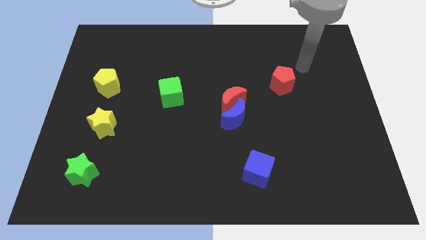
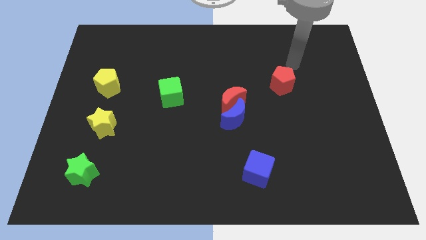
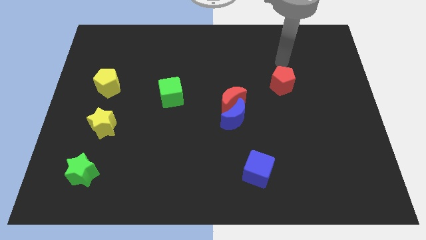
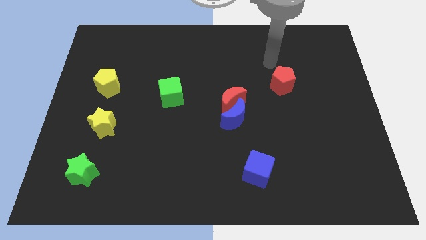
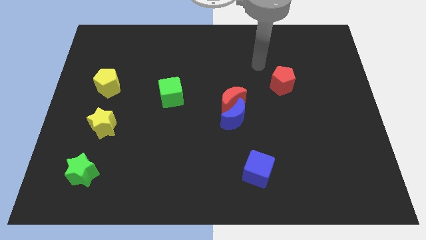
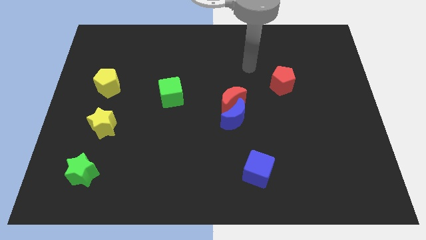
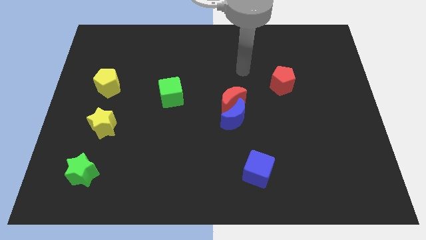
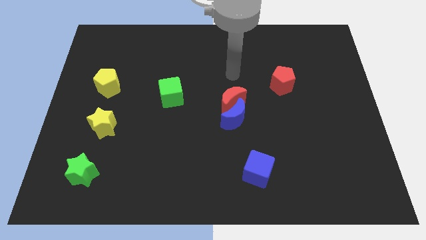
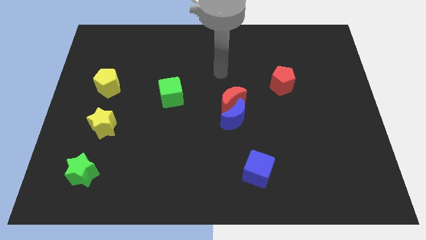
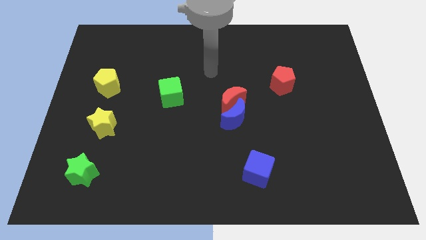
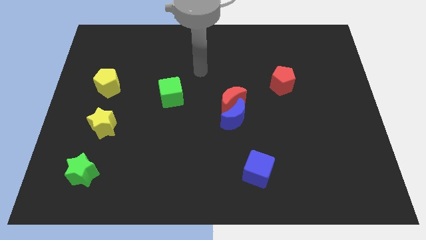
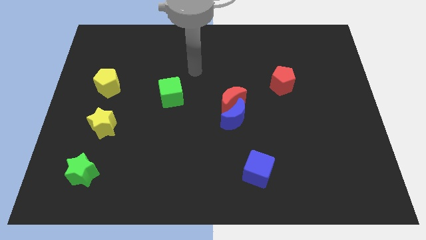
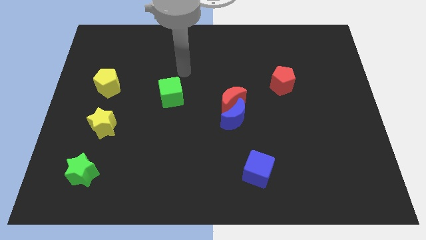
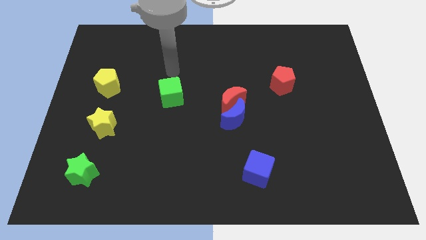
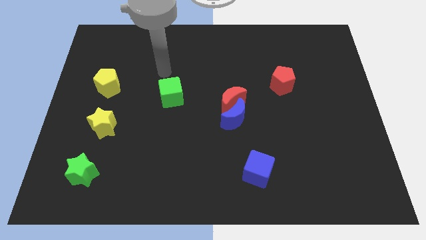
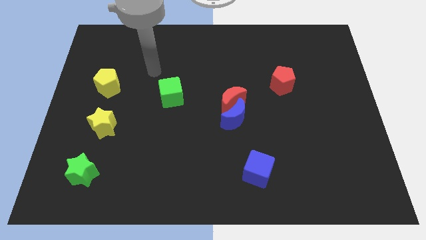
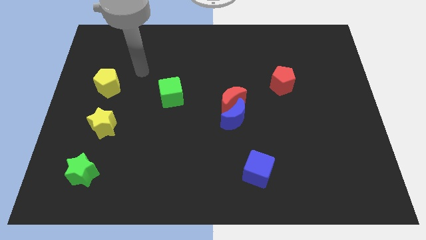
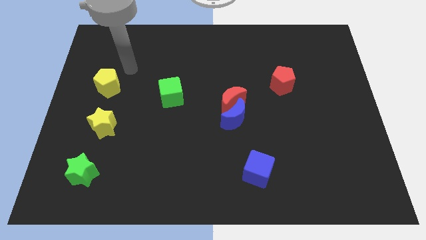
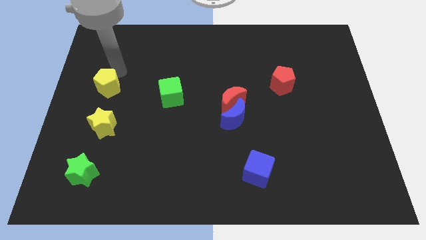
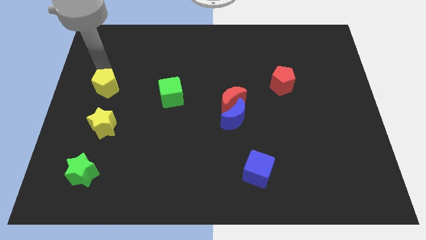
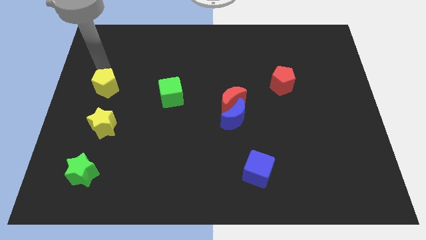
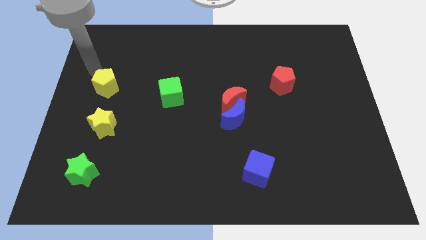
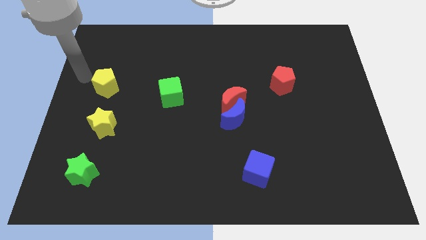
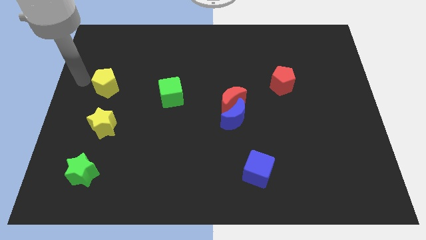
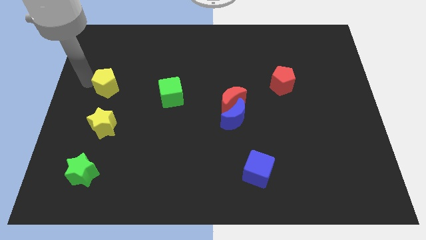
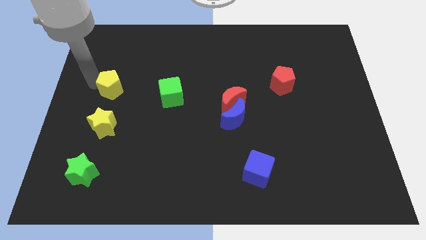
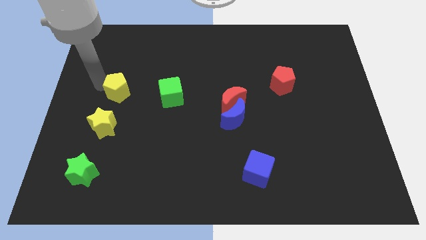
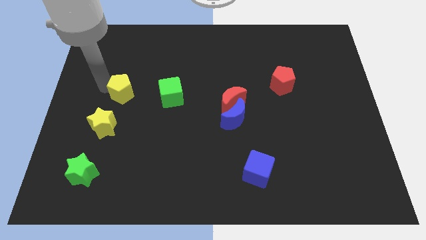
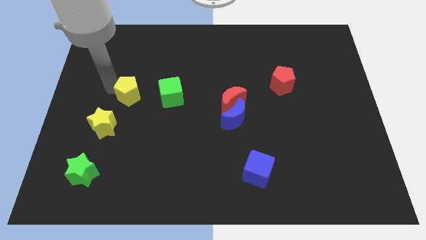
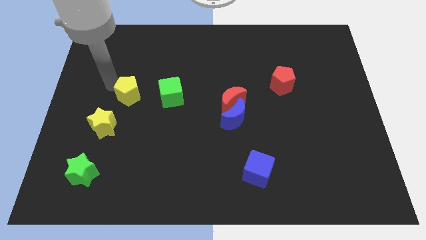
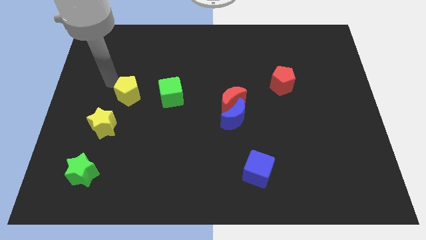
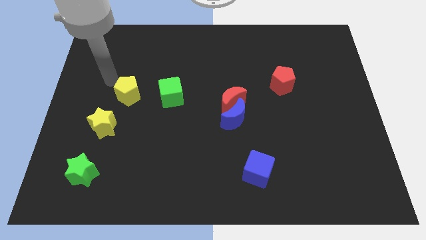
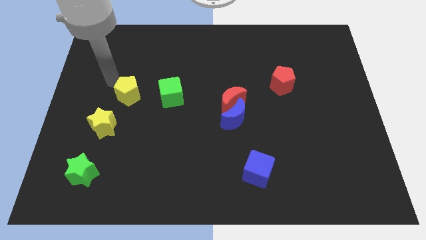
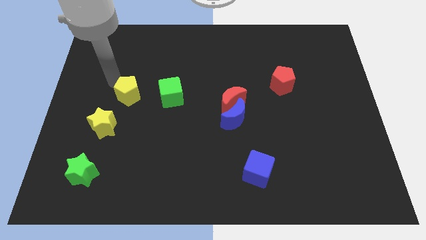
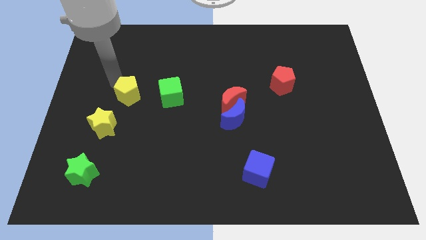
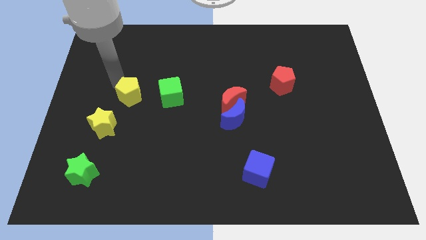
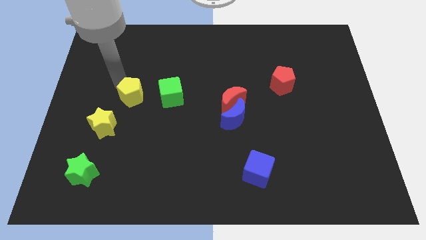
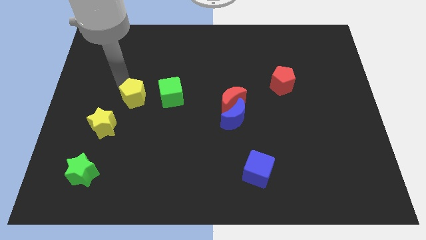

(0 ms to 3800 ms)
push the yellow pentagon a little downwards and to the right

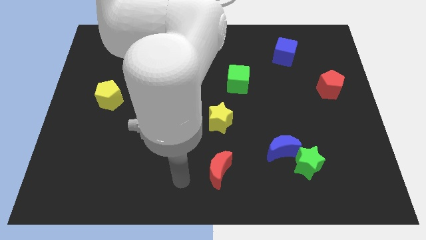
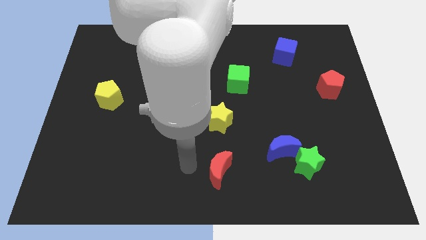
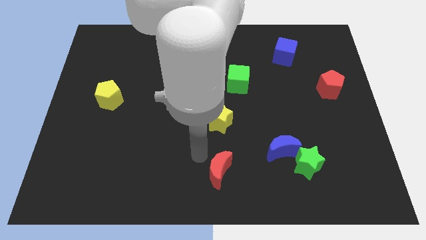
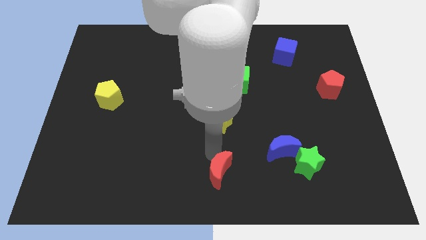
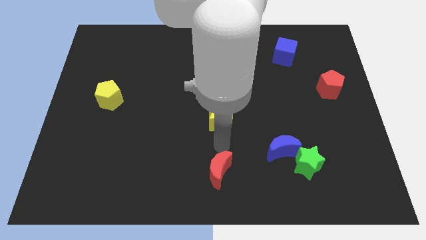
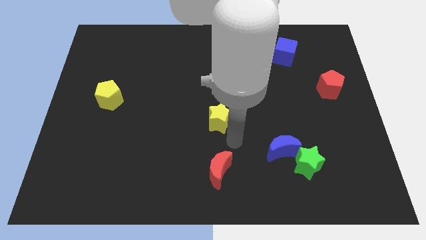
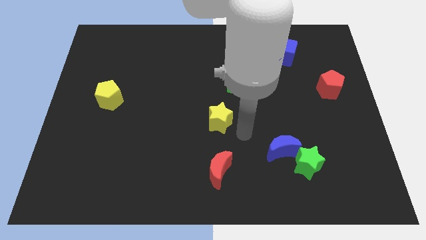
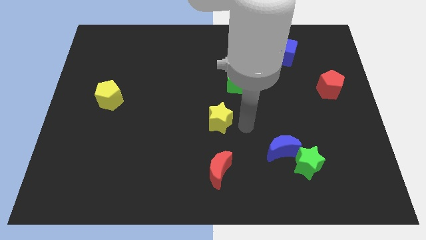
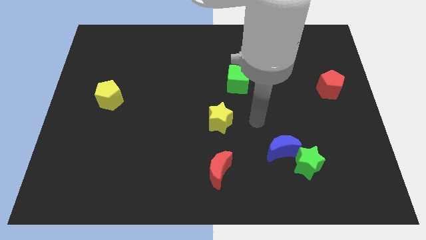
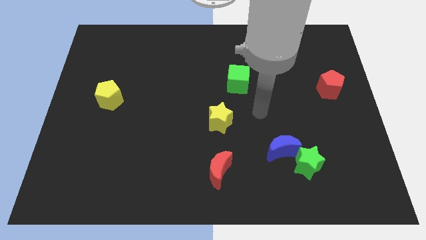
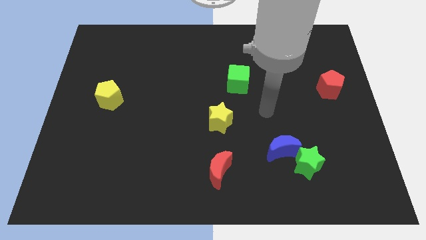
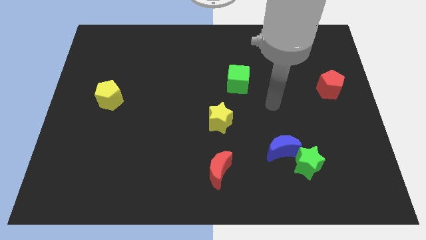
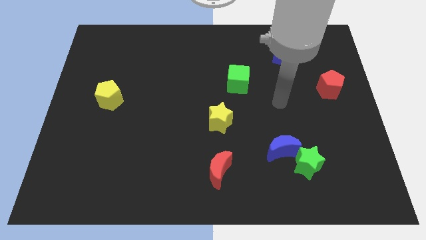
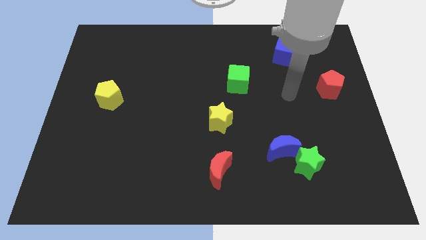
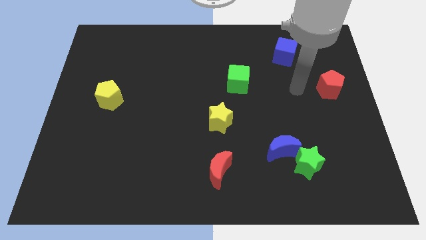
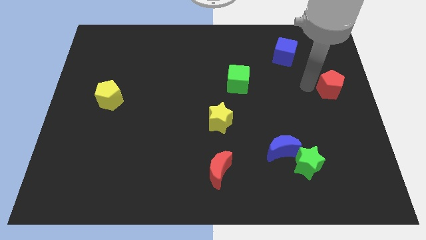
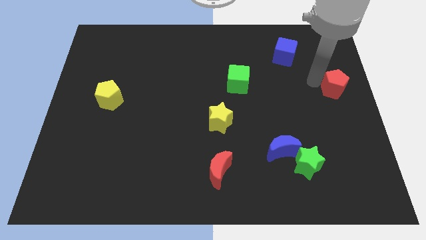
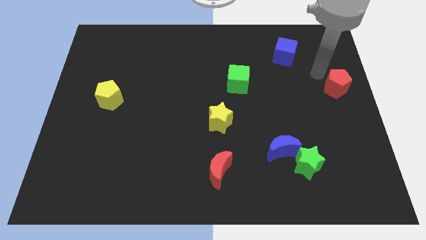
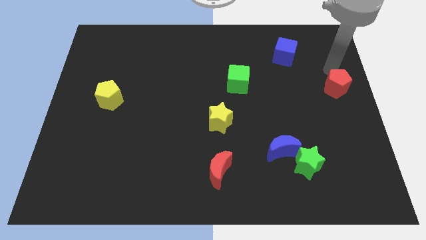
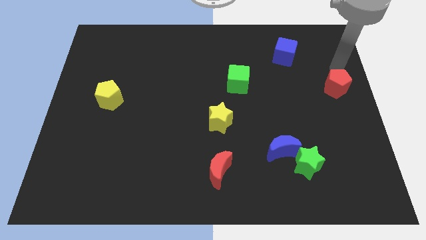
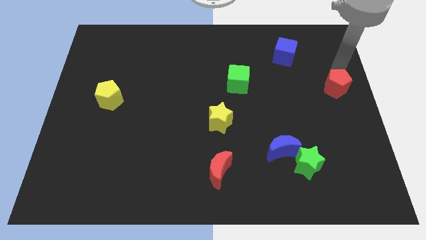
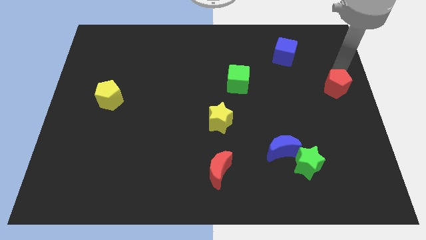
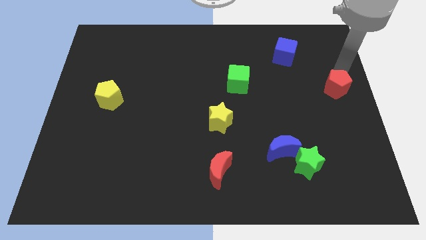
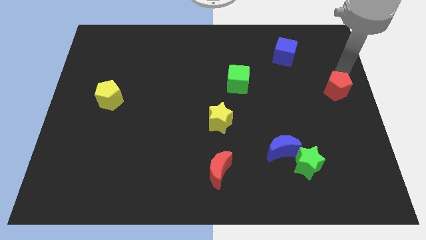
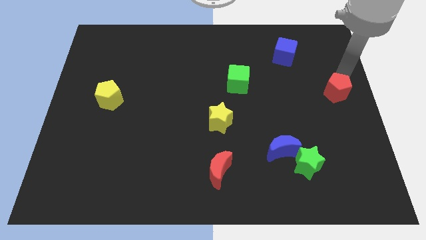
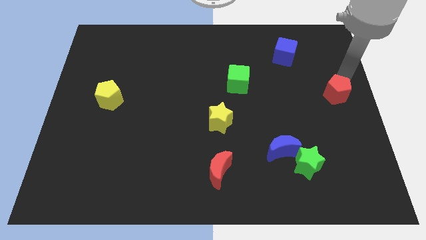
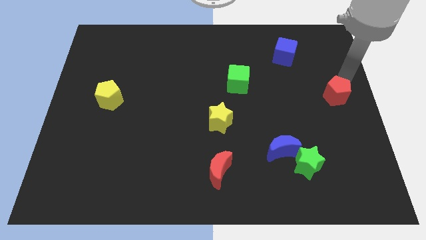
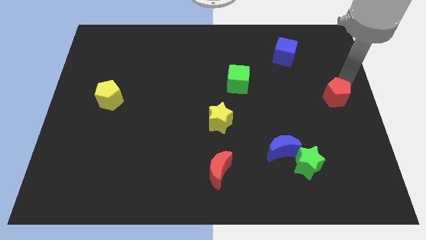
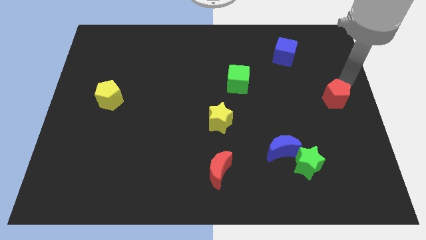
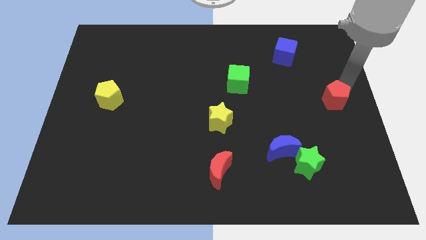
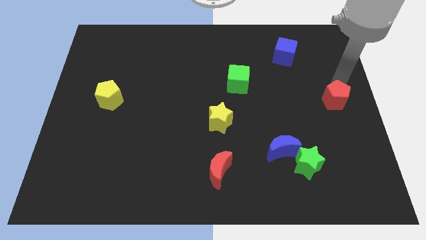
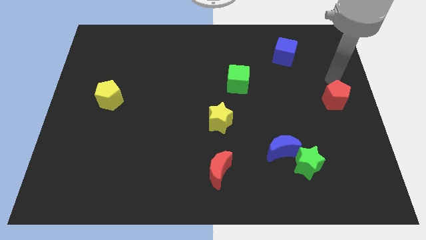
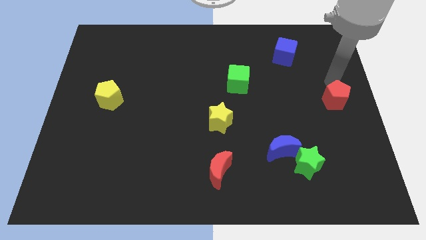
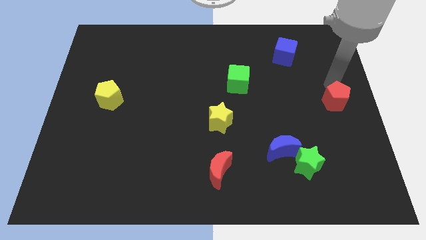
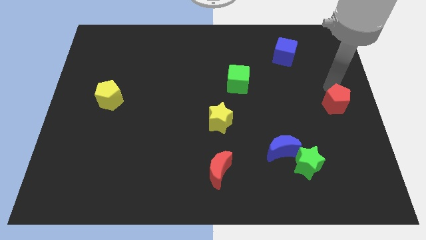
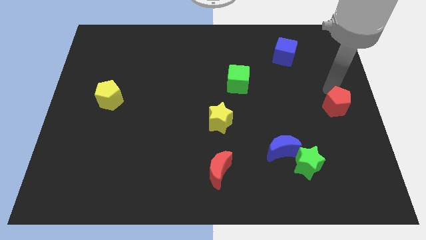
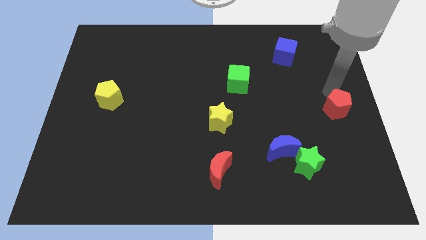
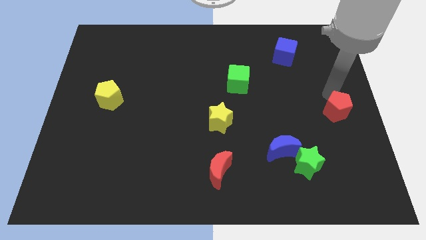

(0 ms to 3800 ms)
slightly slide the red pentagon down

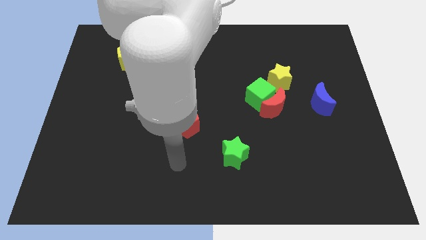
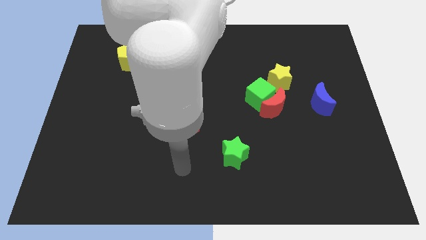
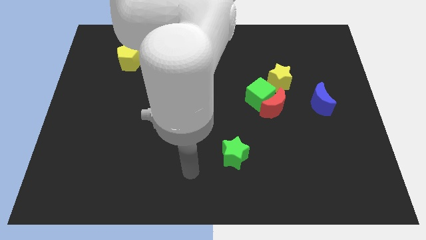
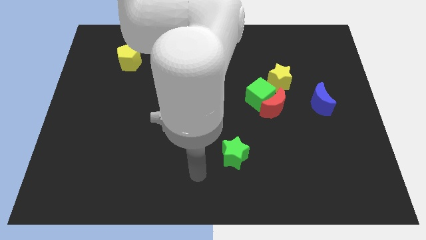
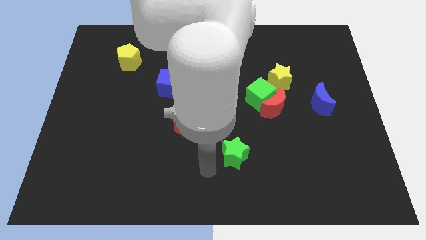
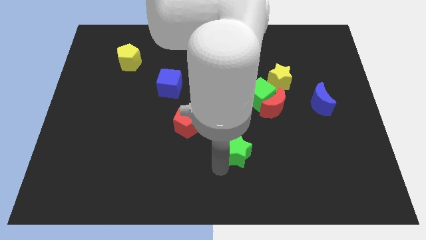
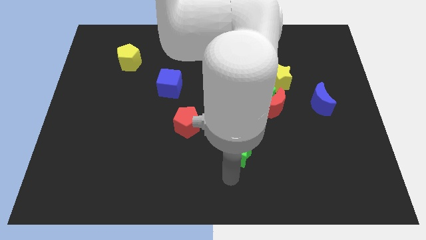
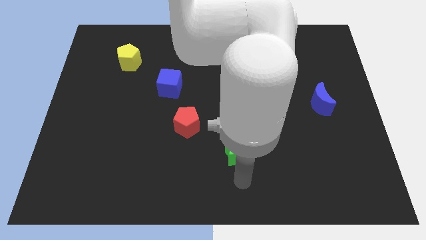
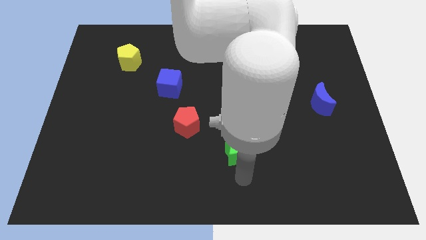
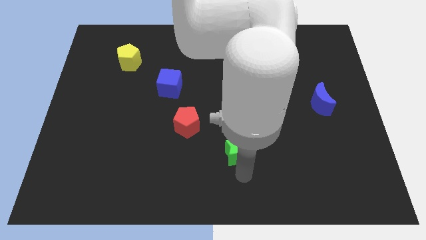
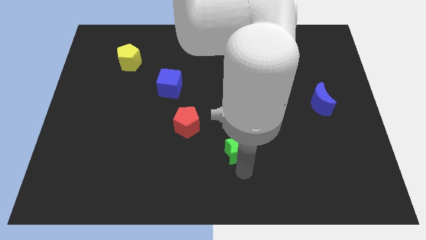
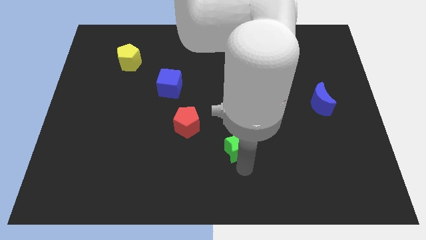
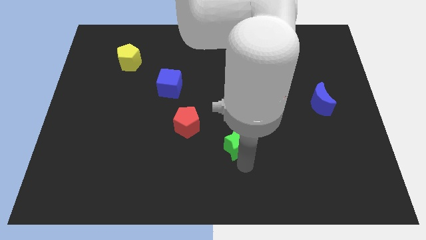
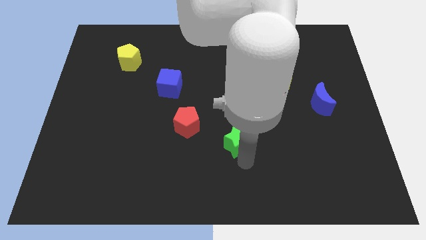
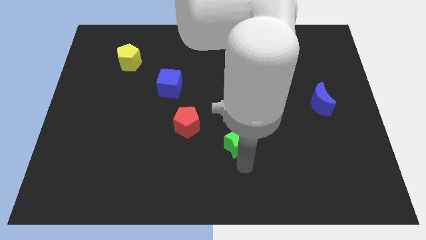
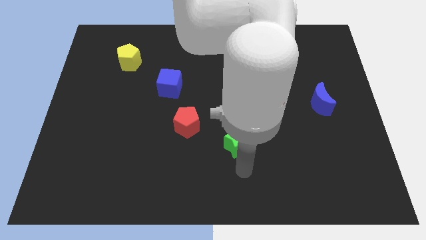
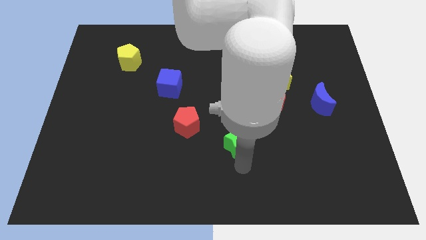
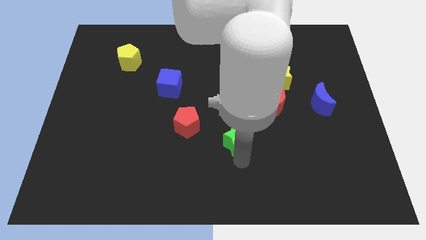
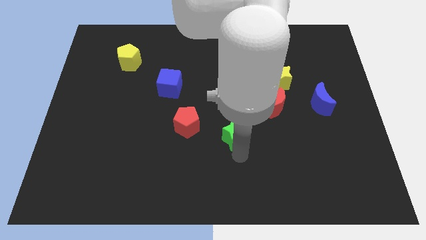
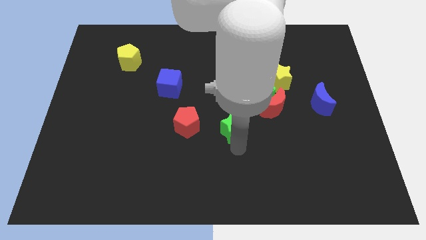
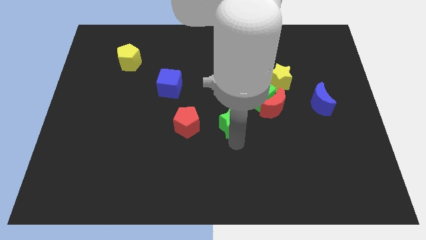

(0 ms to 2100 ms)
slightly slide the green star up
